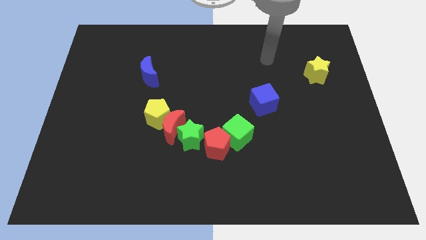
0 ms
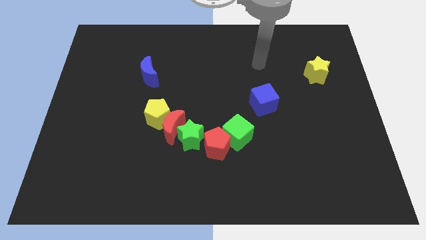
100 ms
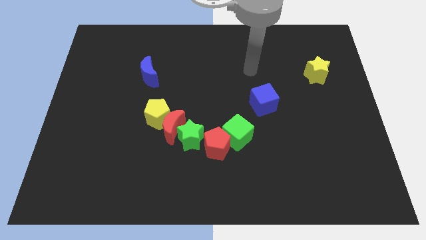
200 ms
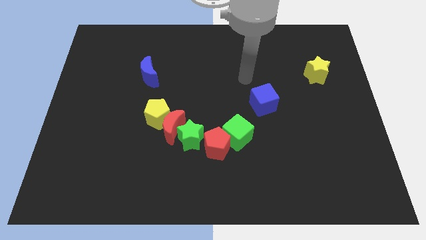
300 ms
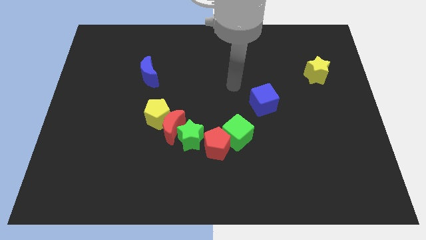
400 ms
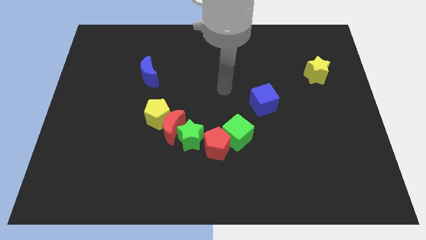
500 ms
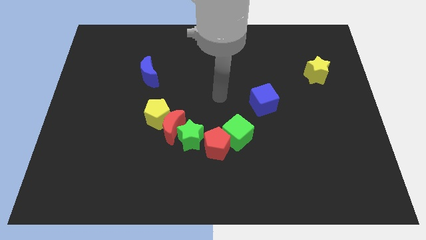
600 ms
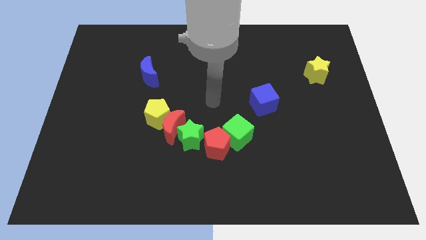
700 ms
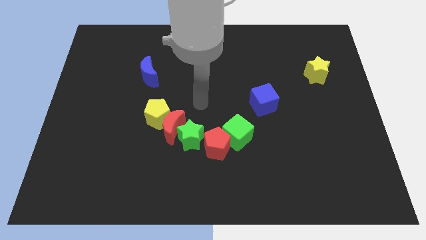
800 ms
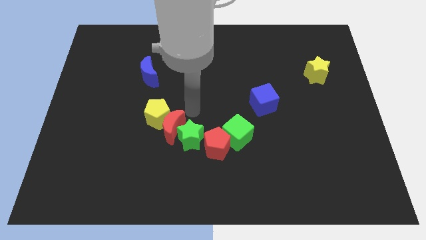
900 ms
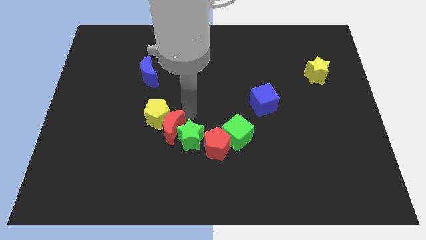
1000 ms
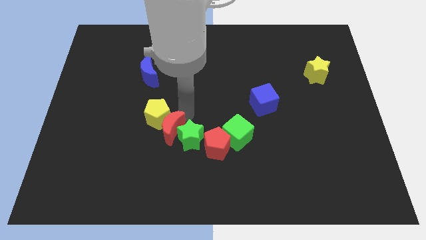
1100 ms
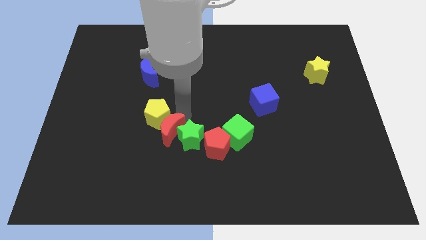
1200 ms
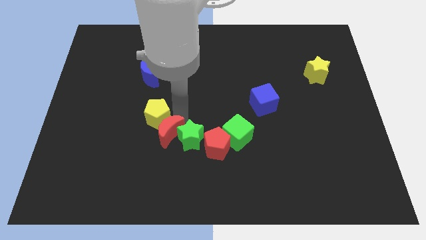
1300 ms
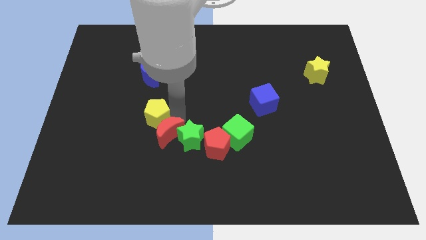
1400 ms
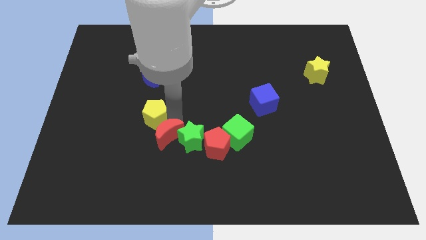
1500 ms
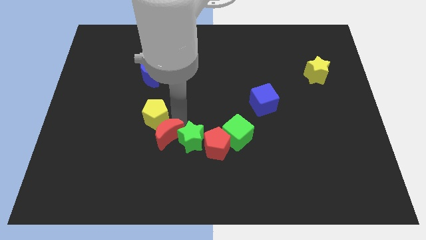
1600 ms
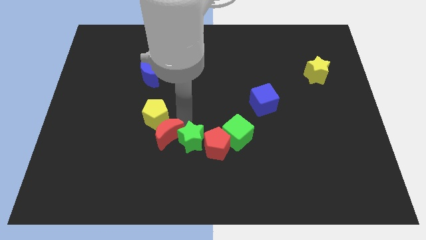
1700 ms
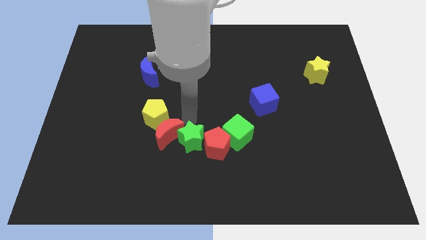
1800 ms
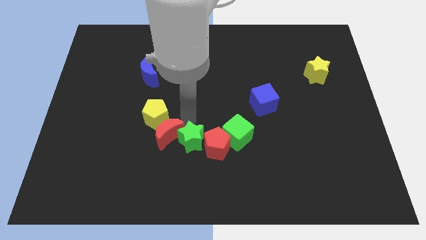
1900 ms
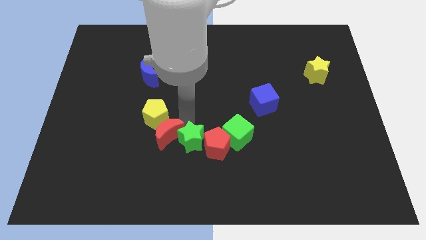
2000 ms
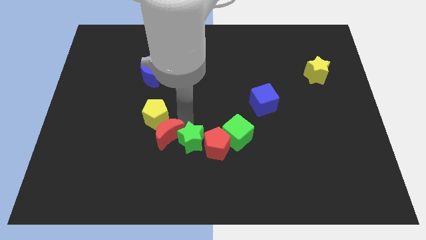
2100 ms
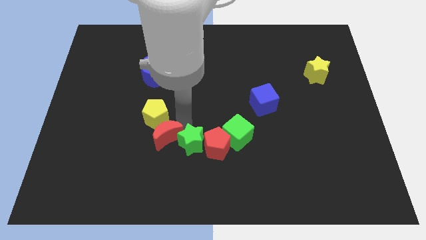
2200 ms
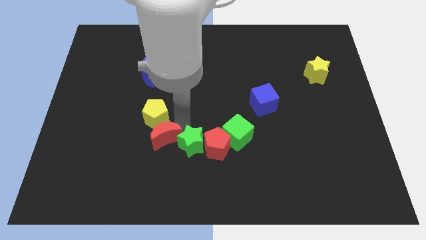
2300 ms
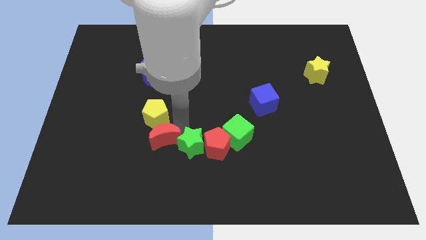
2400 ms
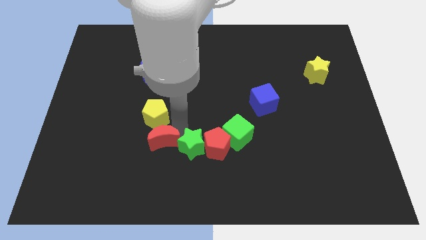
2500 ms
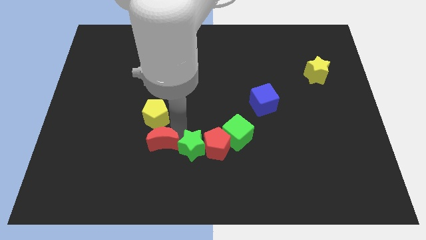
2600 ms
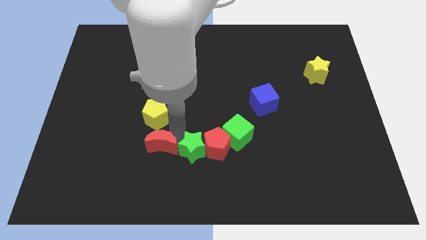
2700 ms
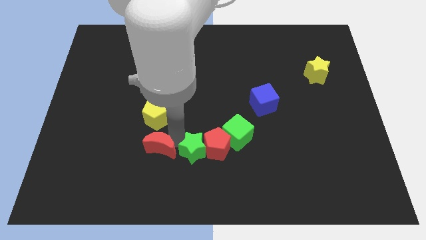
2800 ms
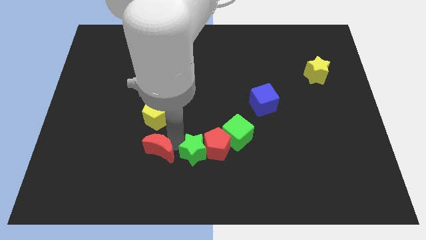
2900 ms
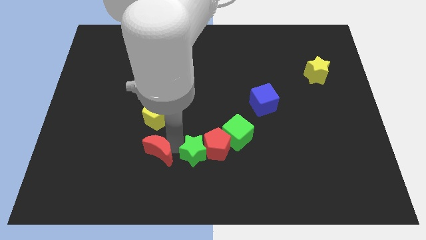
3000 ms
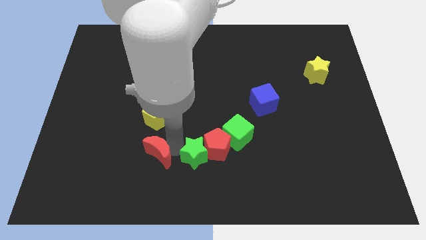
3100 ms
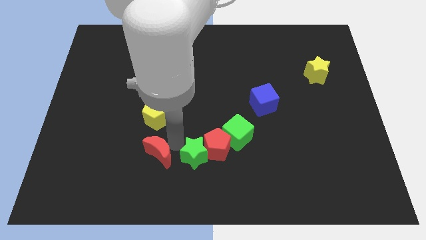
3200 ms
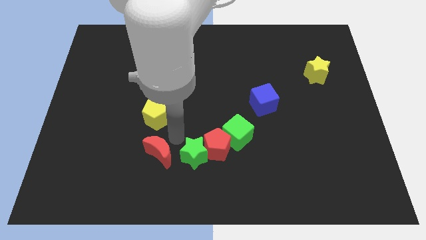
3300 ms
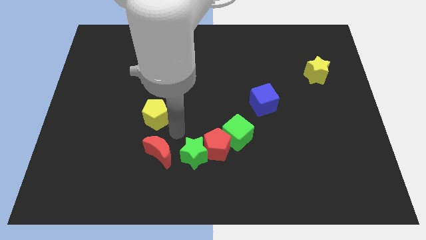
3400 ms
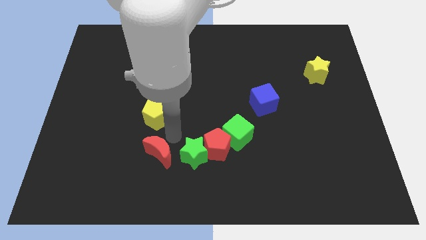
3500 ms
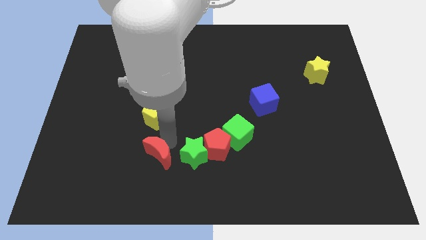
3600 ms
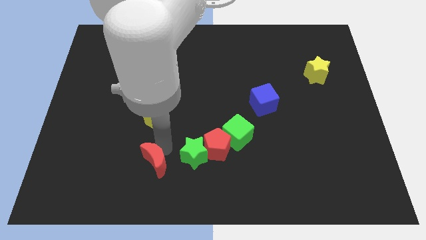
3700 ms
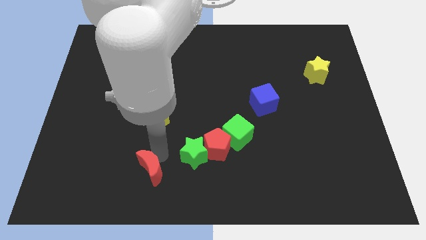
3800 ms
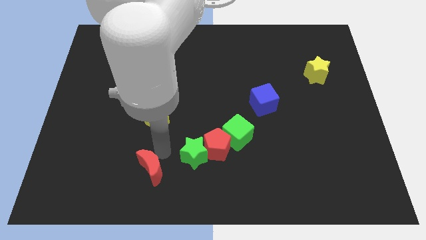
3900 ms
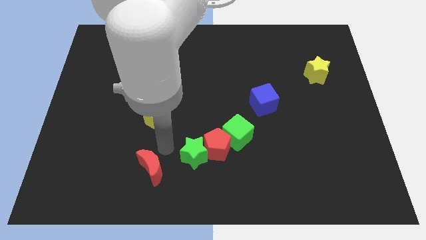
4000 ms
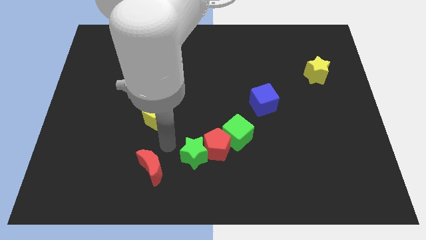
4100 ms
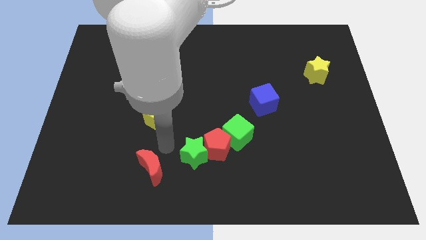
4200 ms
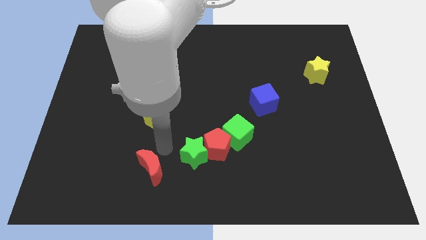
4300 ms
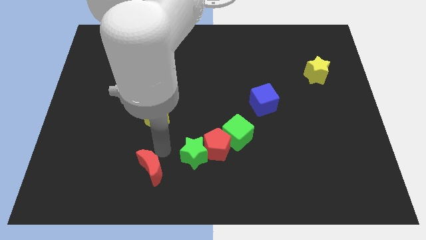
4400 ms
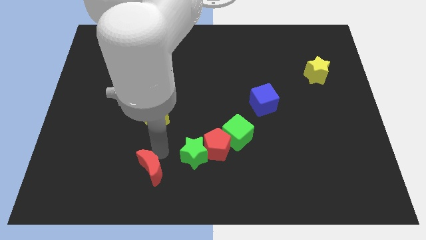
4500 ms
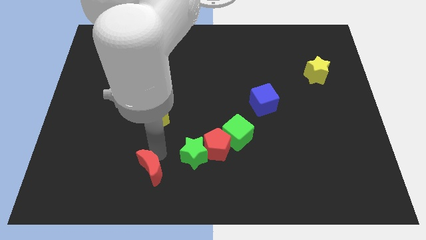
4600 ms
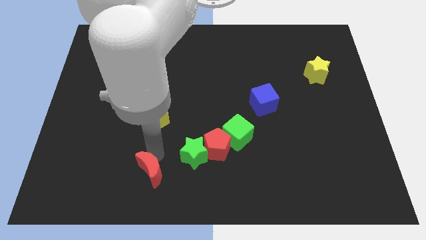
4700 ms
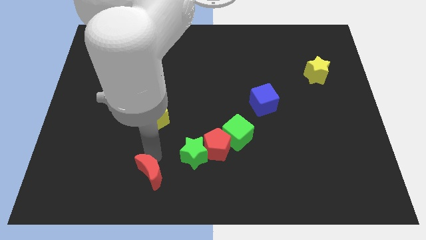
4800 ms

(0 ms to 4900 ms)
separate the red moon from the yellow pentagon and green star

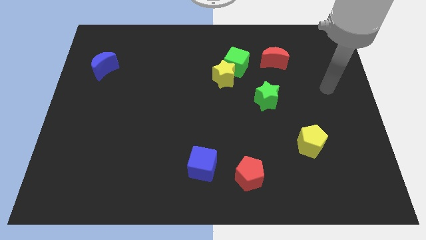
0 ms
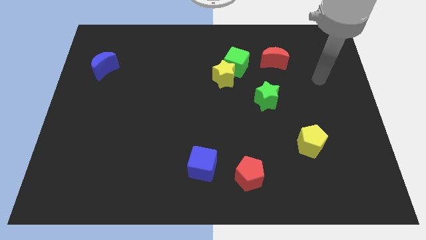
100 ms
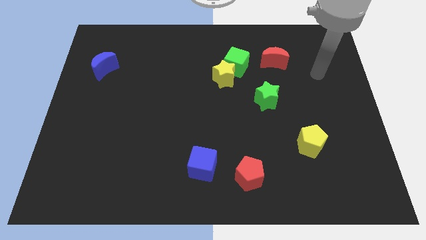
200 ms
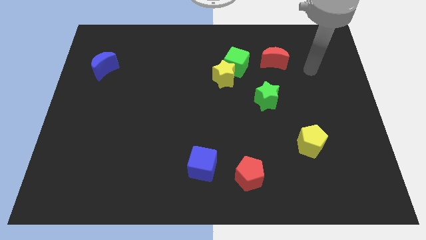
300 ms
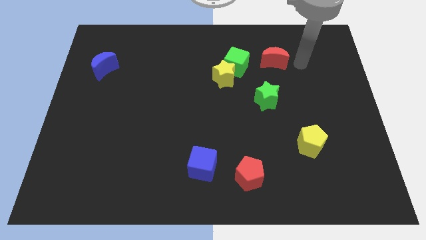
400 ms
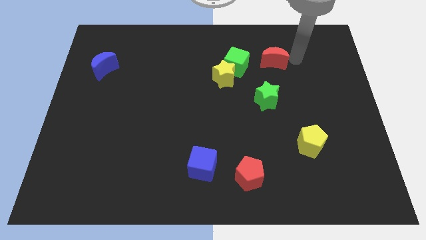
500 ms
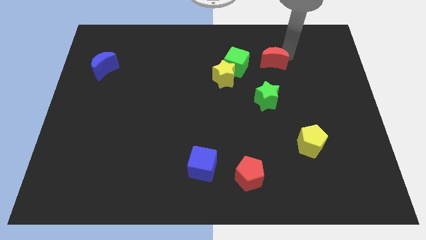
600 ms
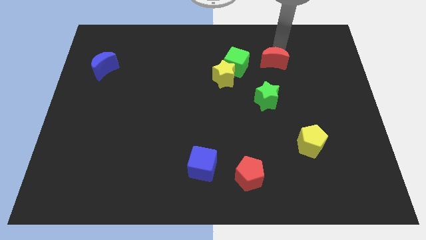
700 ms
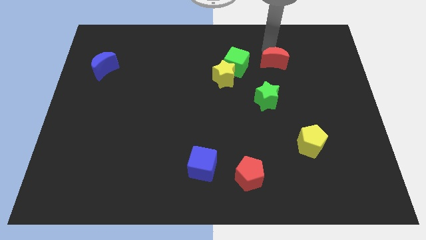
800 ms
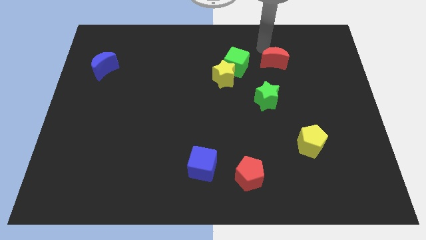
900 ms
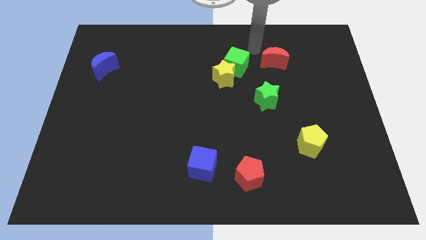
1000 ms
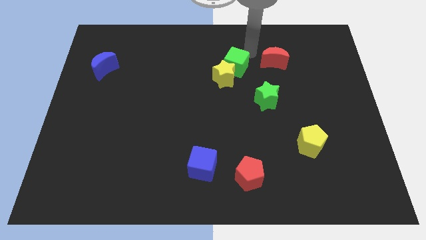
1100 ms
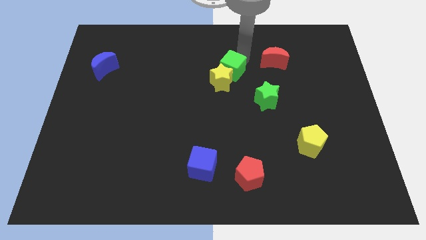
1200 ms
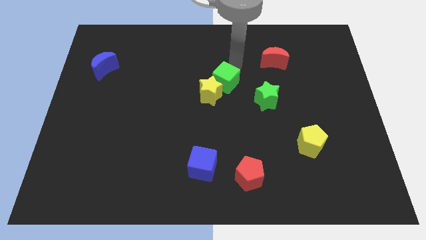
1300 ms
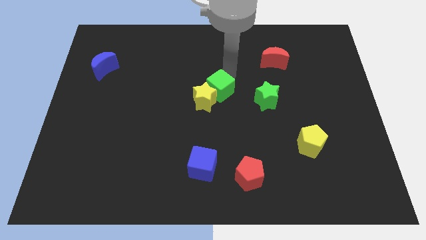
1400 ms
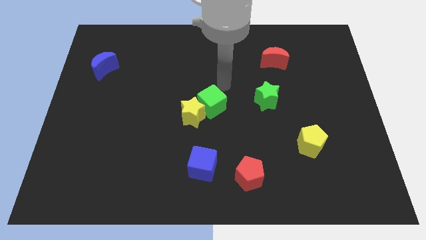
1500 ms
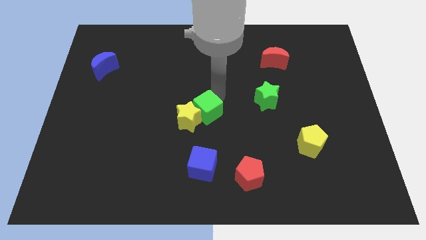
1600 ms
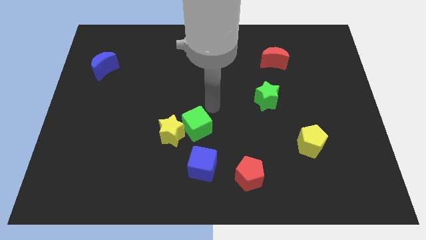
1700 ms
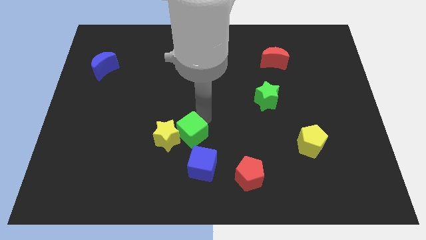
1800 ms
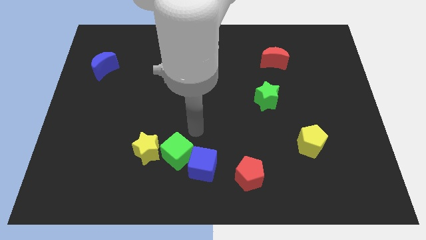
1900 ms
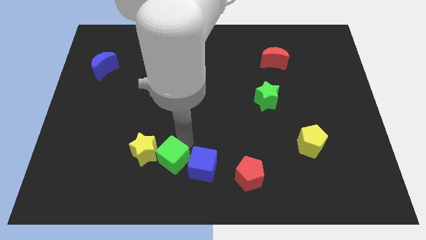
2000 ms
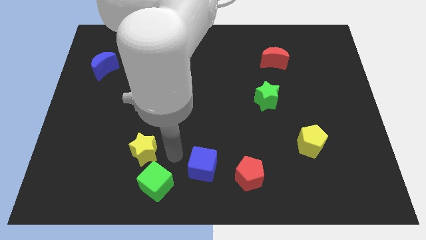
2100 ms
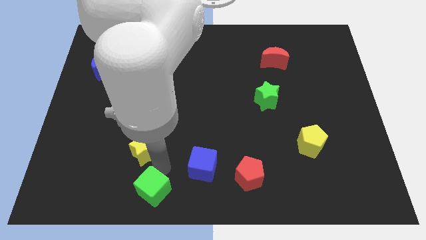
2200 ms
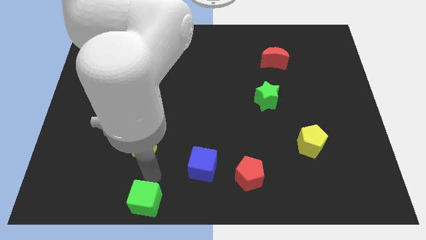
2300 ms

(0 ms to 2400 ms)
pull the yellow star apart from the green cube

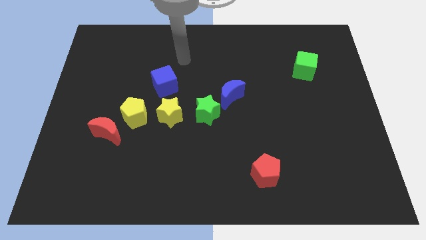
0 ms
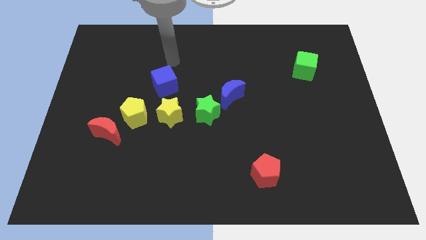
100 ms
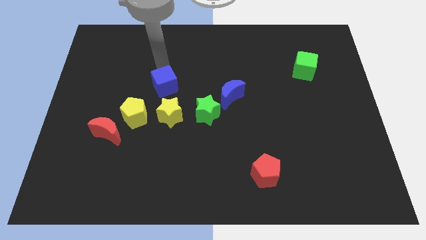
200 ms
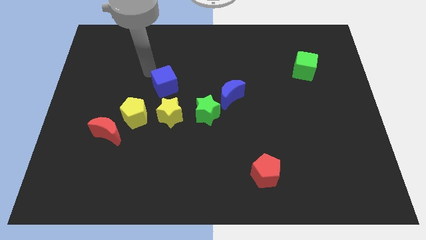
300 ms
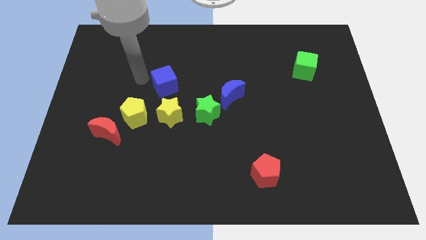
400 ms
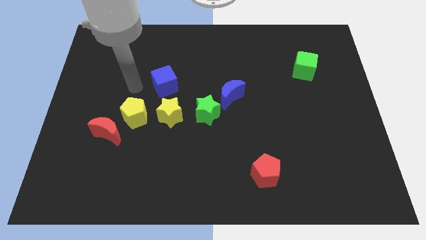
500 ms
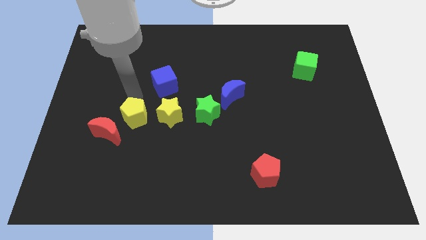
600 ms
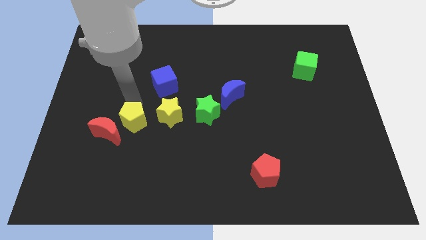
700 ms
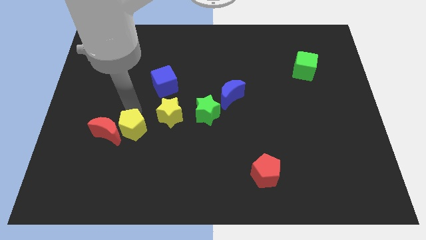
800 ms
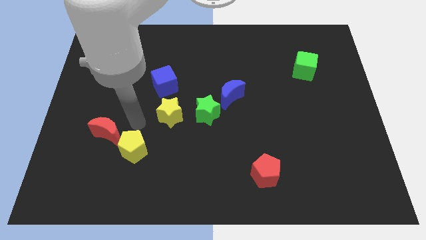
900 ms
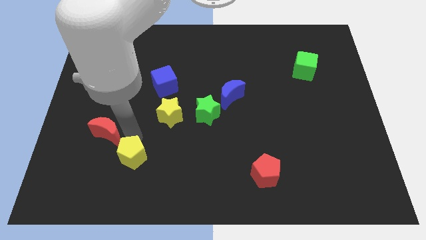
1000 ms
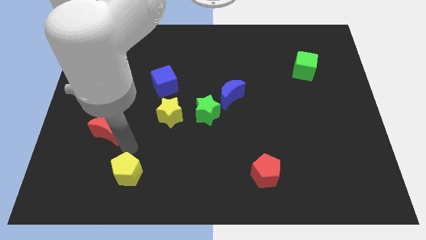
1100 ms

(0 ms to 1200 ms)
move the red moon away from the yellow pentagon

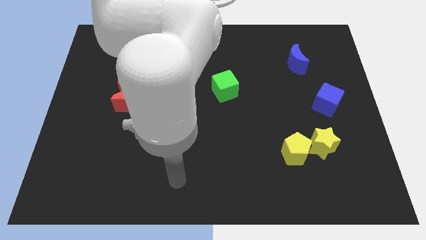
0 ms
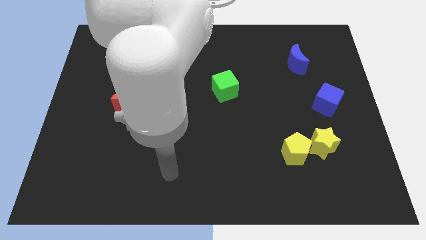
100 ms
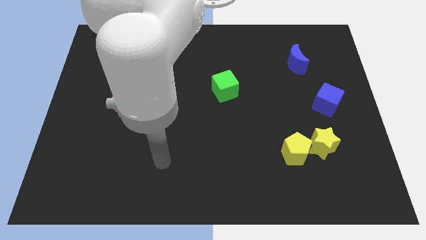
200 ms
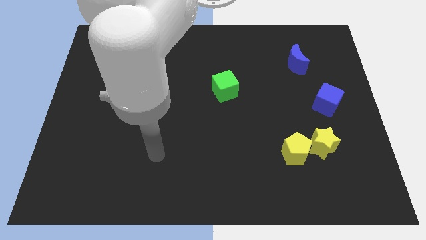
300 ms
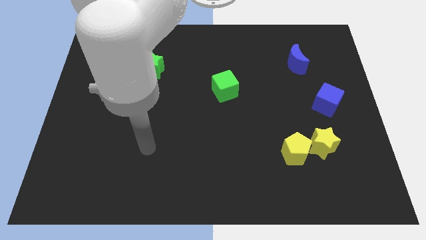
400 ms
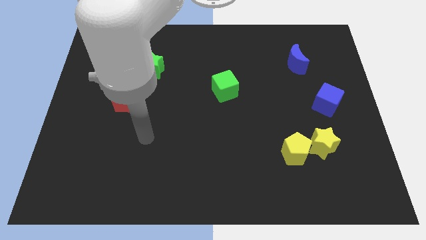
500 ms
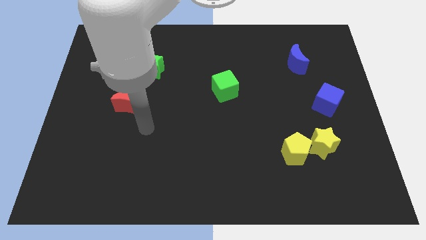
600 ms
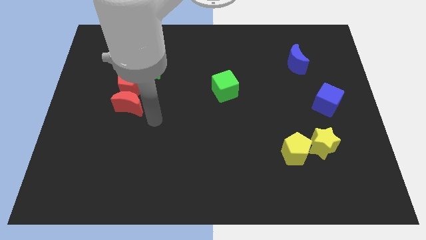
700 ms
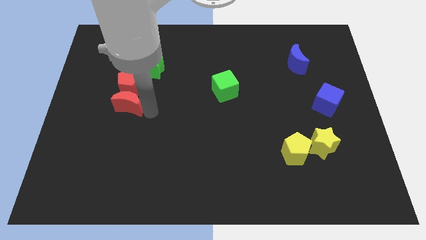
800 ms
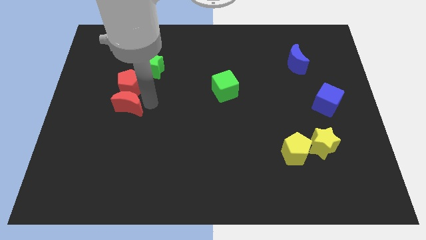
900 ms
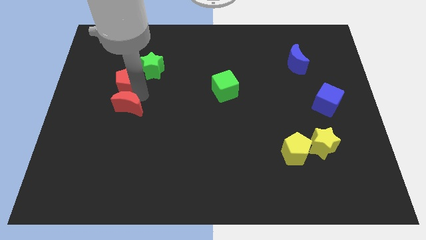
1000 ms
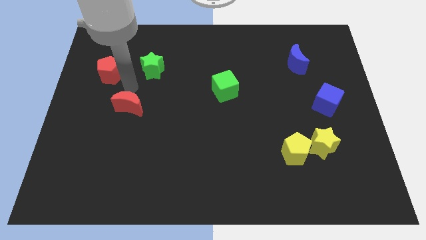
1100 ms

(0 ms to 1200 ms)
move the red moon away from the red pentagon
